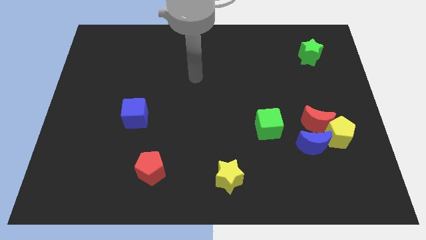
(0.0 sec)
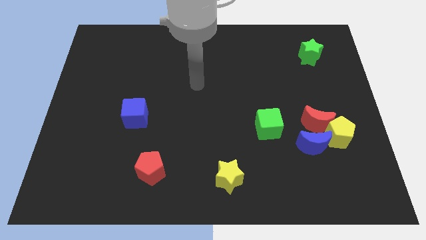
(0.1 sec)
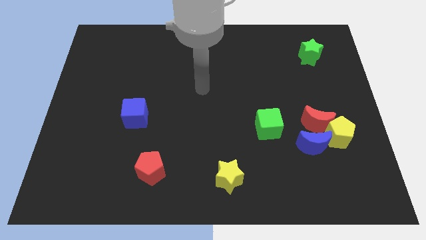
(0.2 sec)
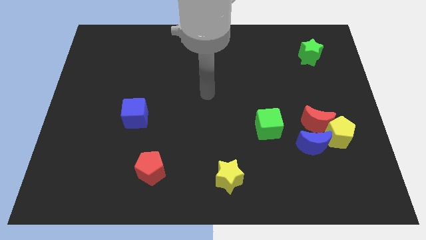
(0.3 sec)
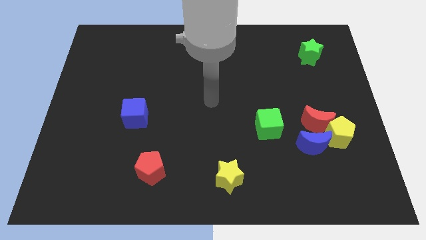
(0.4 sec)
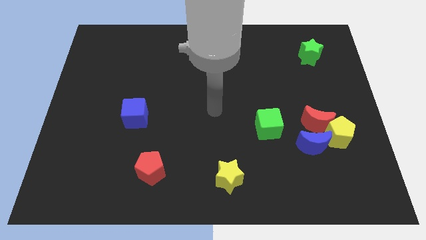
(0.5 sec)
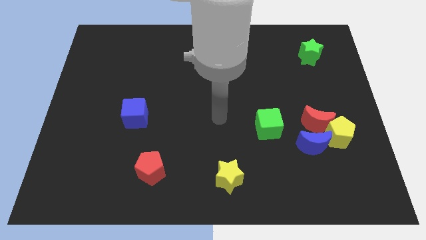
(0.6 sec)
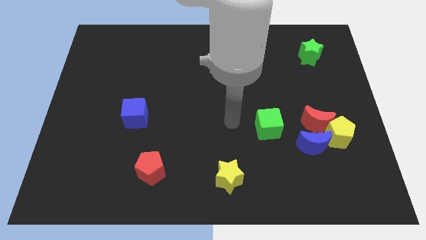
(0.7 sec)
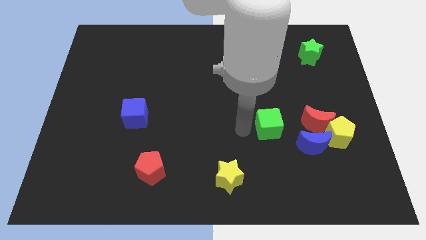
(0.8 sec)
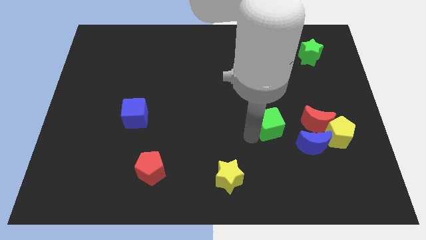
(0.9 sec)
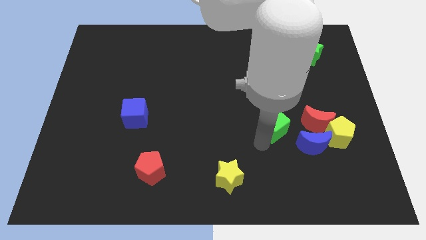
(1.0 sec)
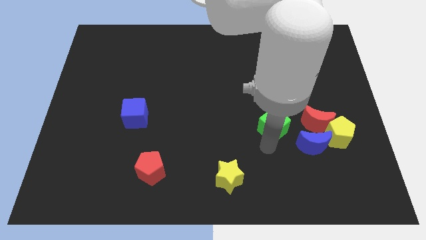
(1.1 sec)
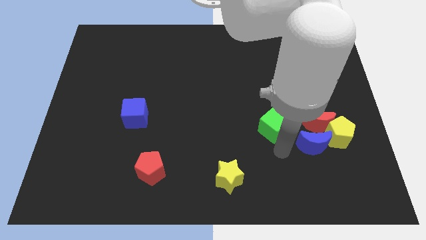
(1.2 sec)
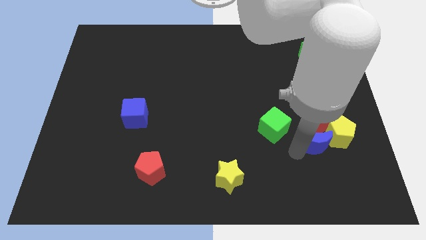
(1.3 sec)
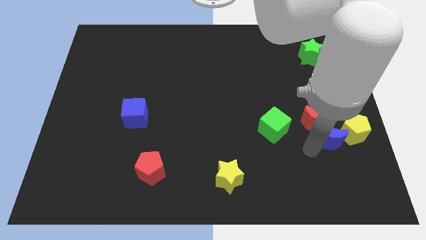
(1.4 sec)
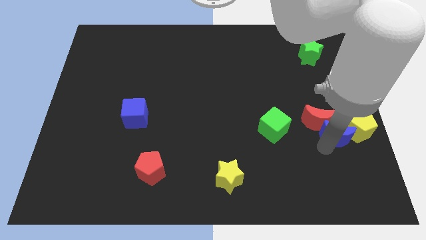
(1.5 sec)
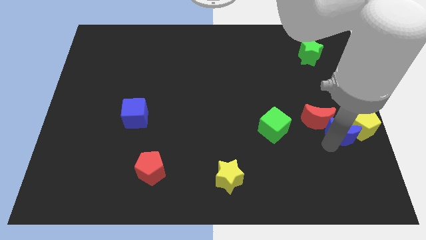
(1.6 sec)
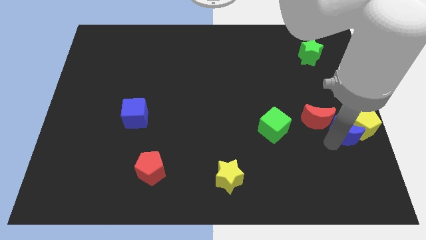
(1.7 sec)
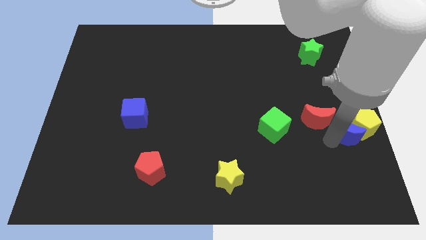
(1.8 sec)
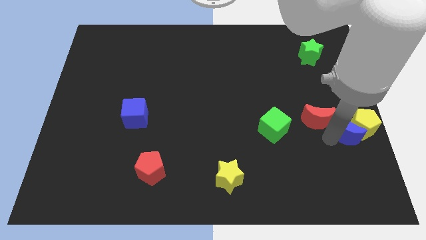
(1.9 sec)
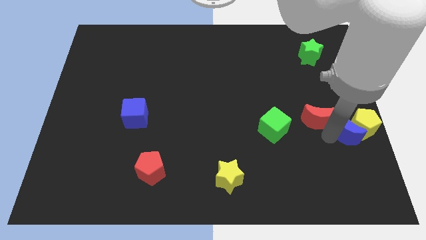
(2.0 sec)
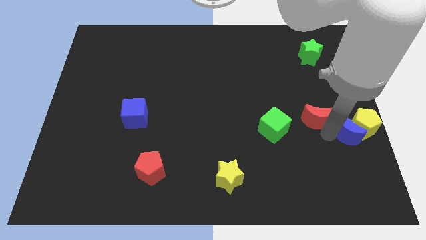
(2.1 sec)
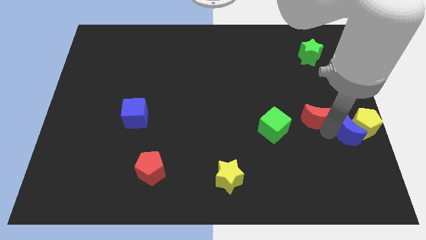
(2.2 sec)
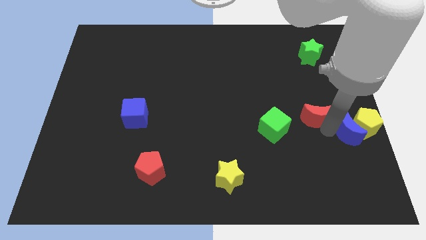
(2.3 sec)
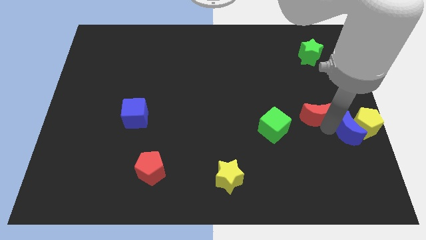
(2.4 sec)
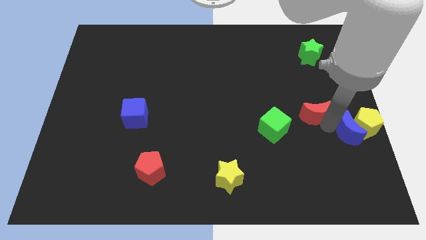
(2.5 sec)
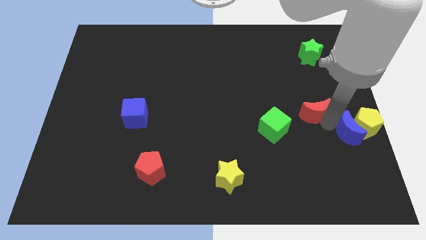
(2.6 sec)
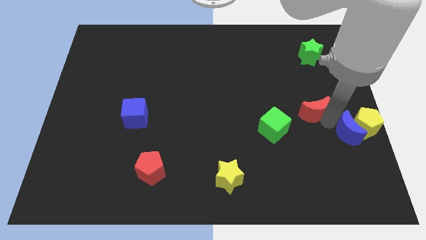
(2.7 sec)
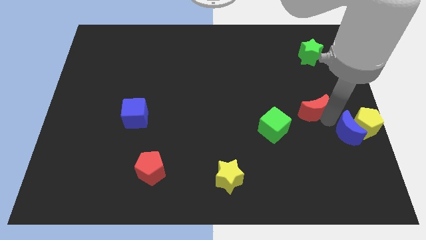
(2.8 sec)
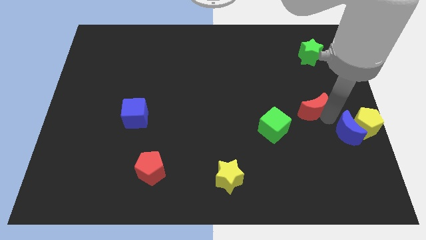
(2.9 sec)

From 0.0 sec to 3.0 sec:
separate the red moon from the yellow pentagon and blue moon

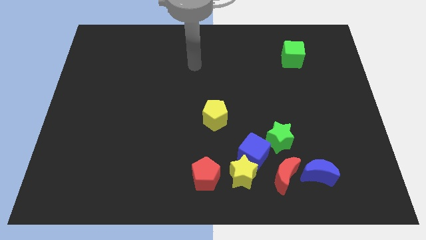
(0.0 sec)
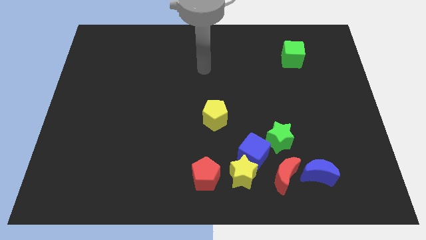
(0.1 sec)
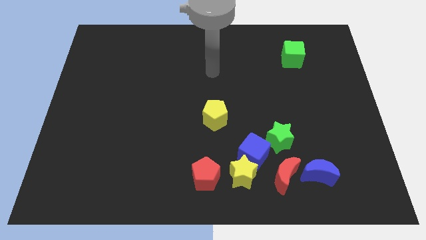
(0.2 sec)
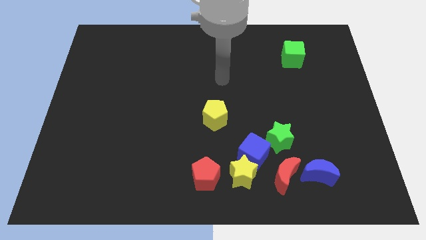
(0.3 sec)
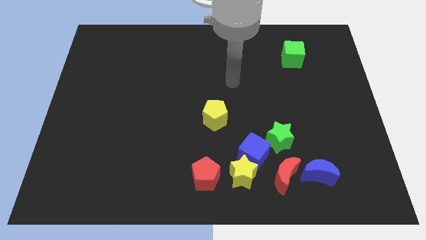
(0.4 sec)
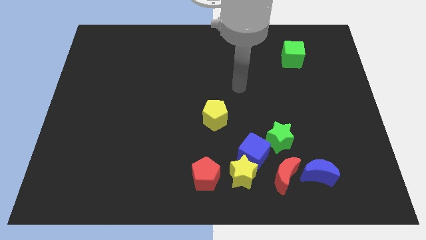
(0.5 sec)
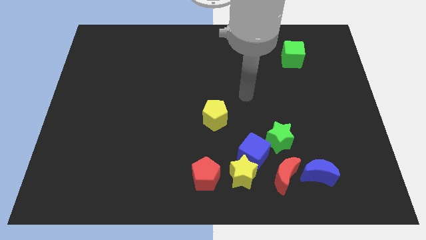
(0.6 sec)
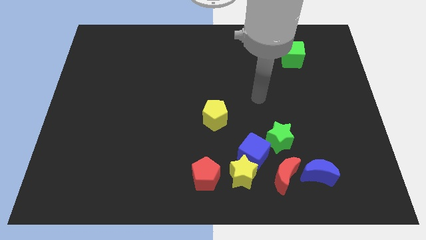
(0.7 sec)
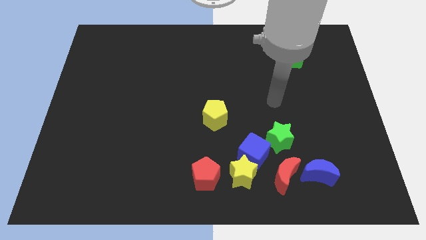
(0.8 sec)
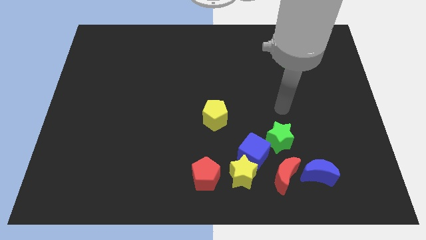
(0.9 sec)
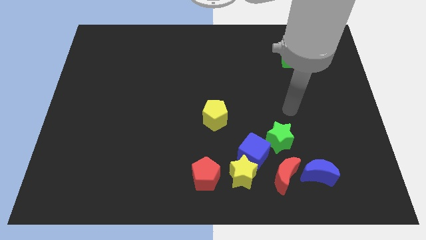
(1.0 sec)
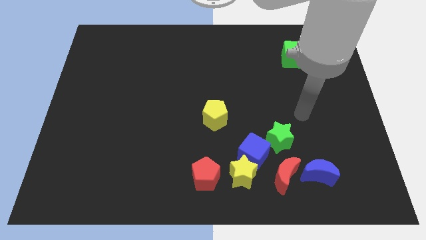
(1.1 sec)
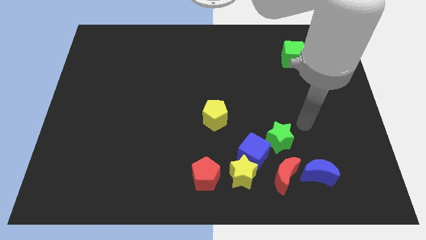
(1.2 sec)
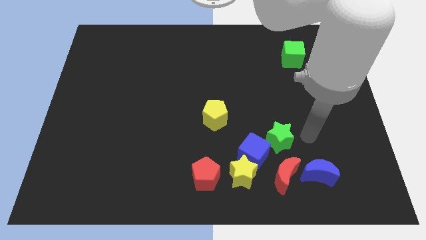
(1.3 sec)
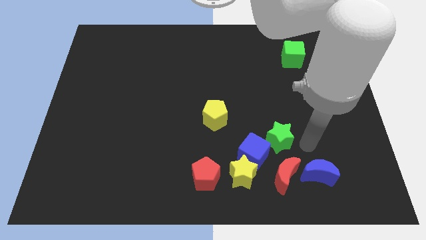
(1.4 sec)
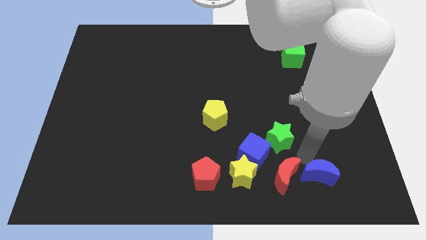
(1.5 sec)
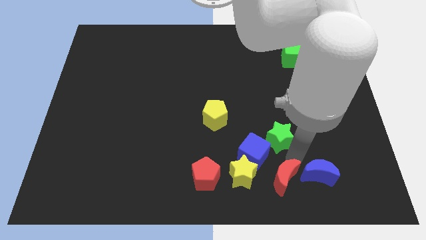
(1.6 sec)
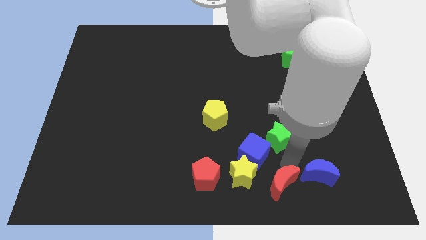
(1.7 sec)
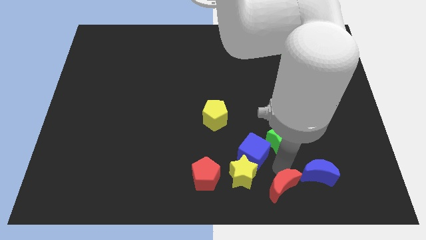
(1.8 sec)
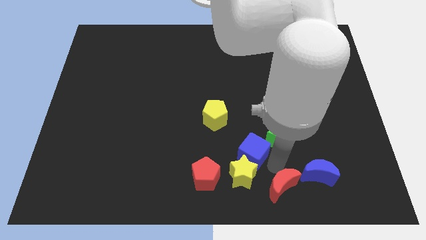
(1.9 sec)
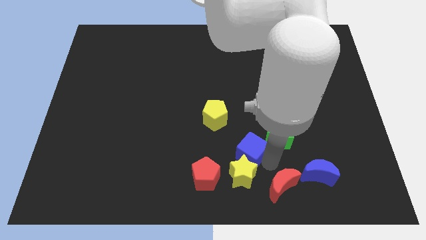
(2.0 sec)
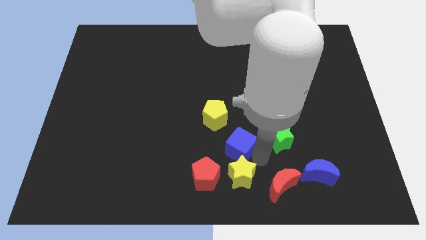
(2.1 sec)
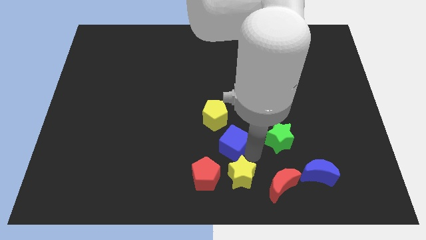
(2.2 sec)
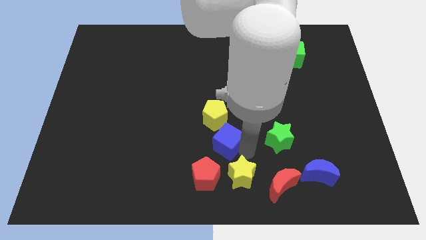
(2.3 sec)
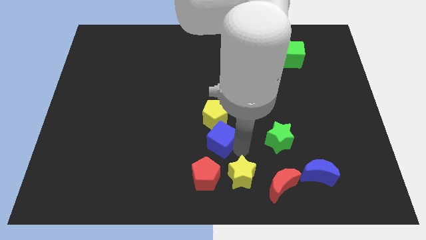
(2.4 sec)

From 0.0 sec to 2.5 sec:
separate the blue cube from the yellow star, green star, and red moon

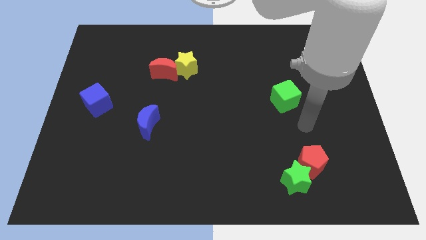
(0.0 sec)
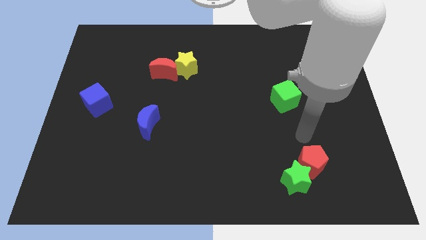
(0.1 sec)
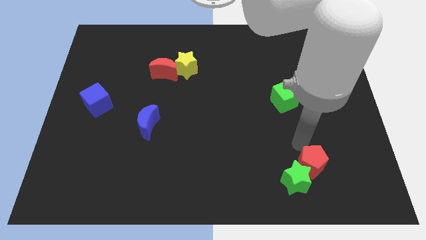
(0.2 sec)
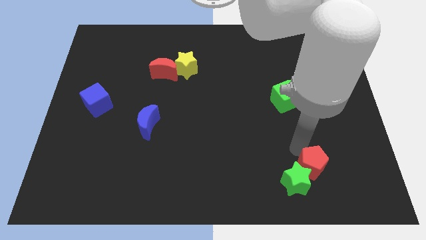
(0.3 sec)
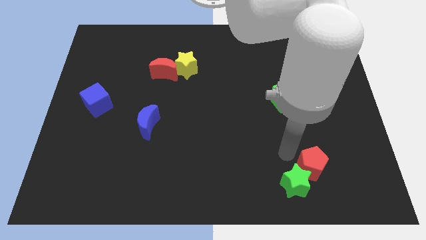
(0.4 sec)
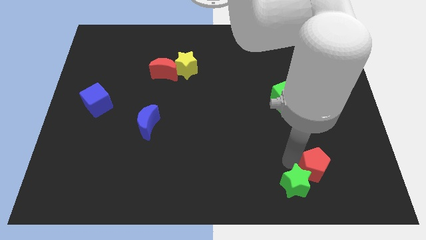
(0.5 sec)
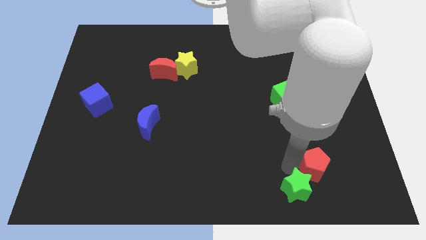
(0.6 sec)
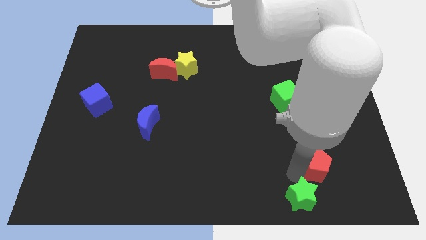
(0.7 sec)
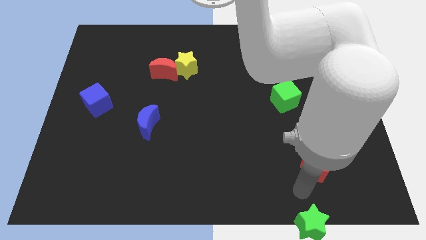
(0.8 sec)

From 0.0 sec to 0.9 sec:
move the red pentagon away from the green star

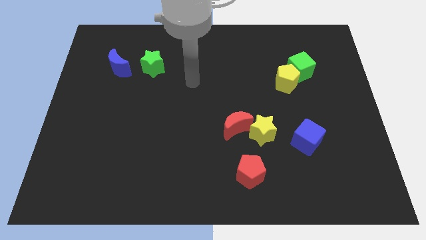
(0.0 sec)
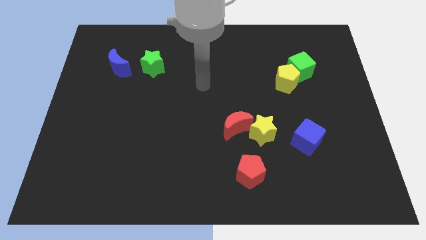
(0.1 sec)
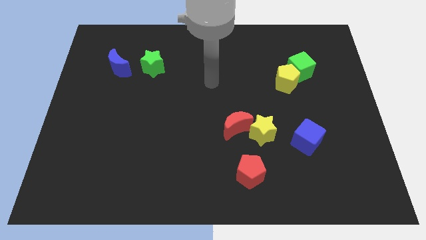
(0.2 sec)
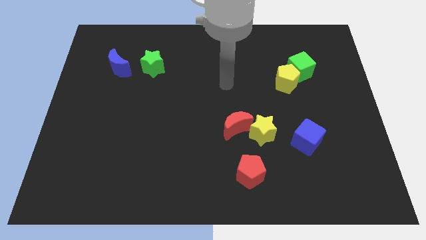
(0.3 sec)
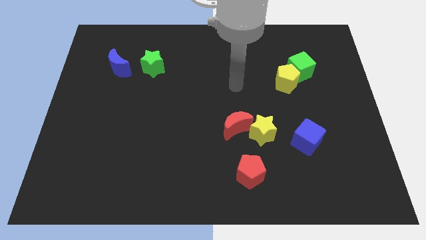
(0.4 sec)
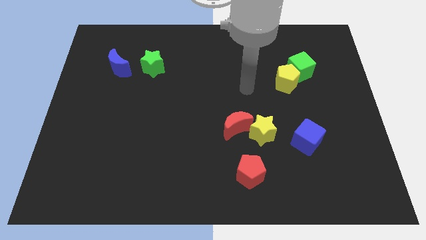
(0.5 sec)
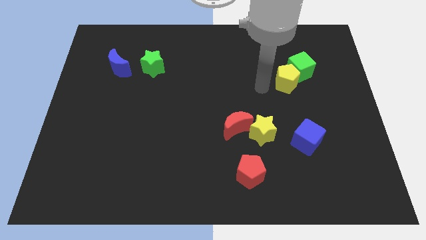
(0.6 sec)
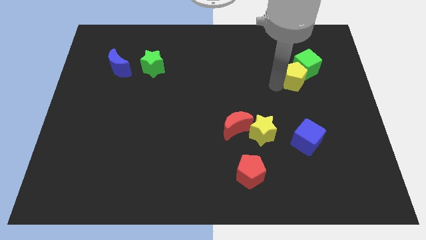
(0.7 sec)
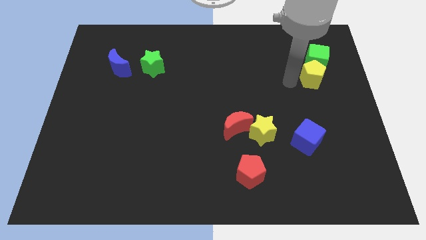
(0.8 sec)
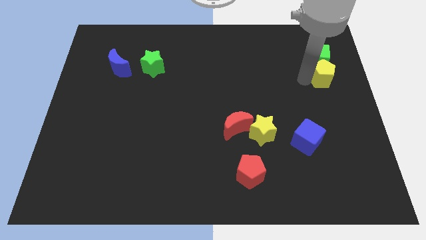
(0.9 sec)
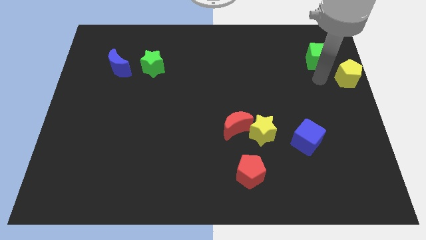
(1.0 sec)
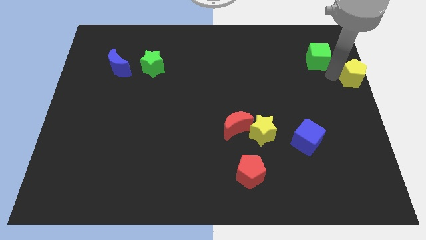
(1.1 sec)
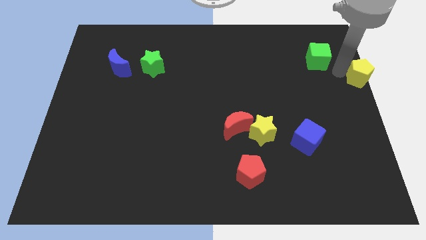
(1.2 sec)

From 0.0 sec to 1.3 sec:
move the green cube away from the yellow pentagon

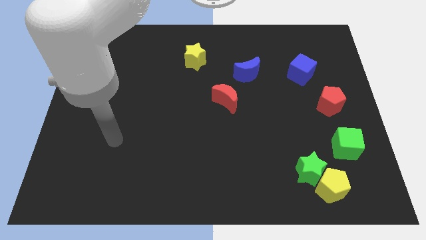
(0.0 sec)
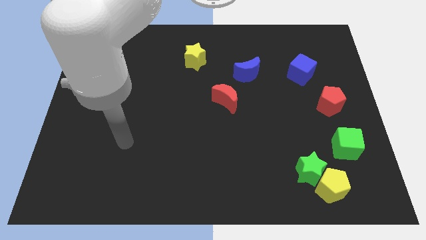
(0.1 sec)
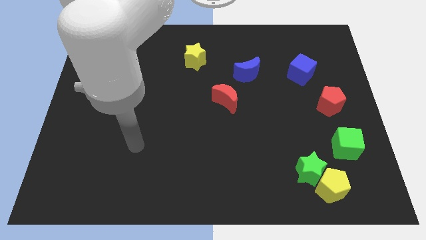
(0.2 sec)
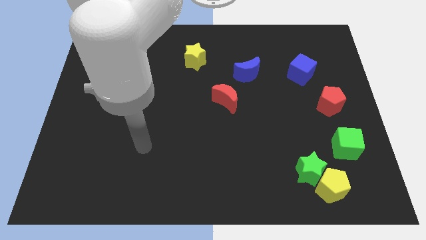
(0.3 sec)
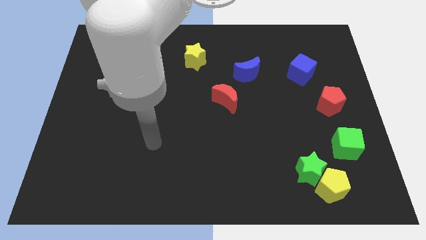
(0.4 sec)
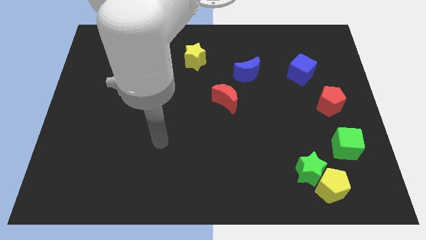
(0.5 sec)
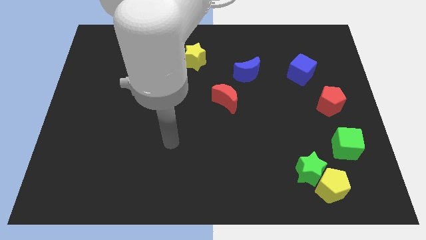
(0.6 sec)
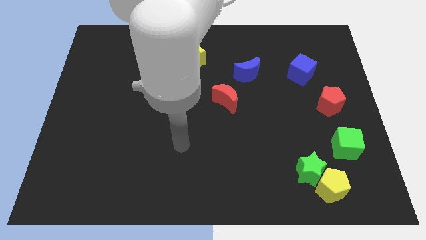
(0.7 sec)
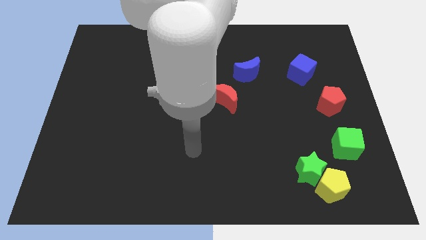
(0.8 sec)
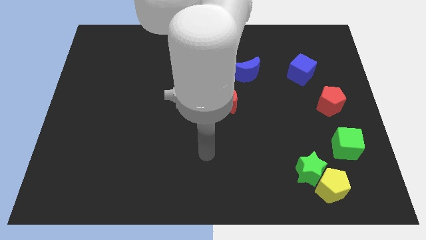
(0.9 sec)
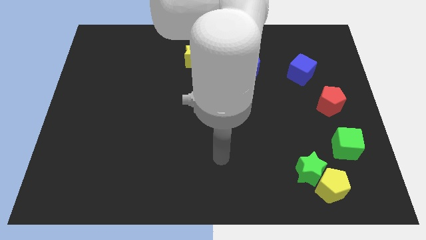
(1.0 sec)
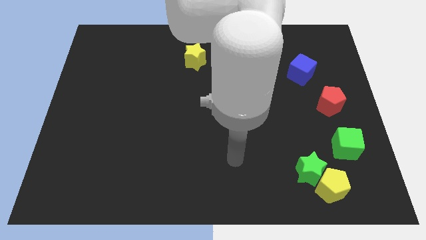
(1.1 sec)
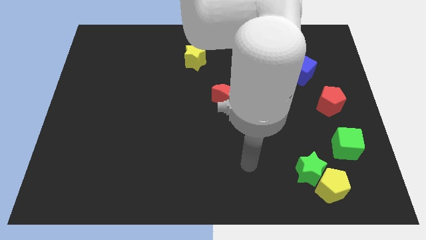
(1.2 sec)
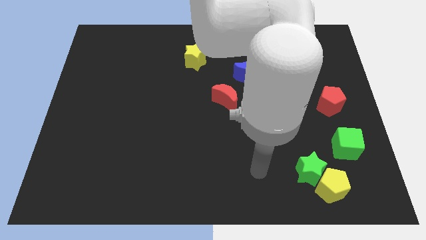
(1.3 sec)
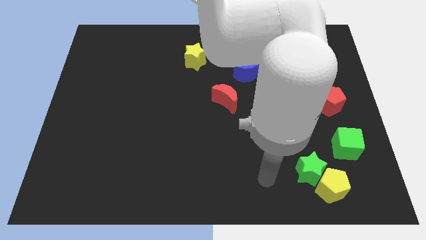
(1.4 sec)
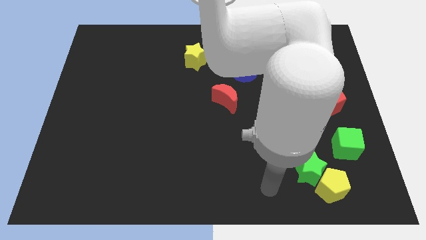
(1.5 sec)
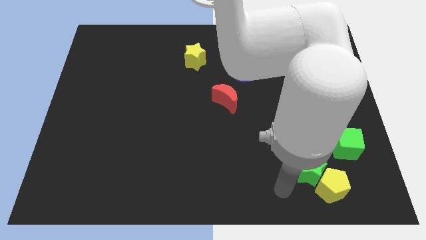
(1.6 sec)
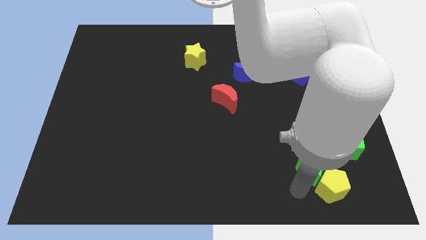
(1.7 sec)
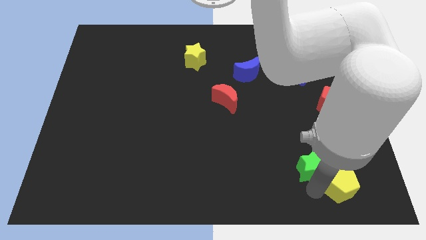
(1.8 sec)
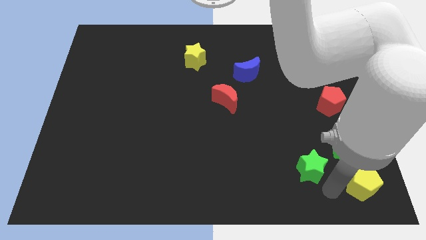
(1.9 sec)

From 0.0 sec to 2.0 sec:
separate the green star from the yellow pentagon
